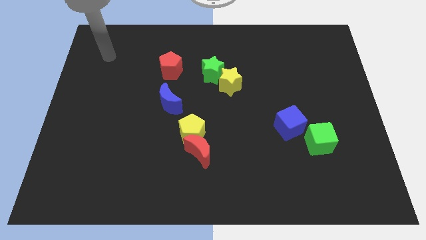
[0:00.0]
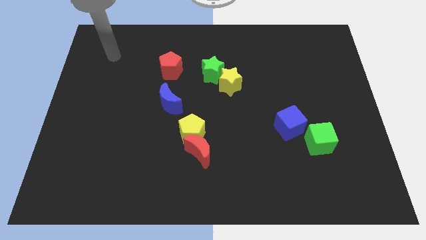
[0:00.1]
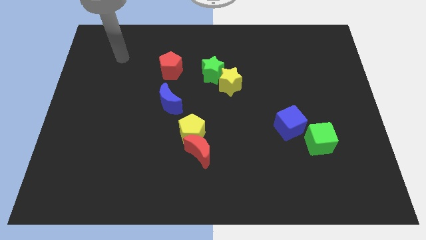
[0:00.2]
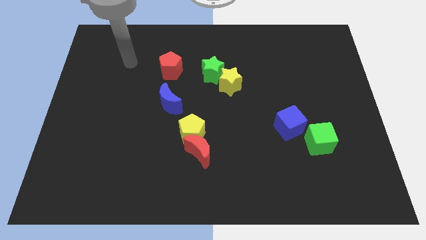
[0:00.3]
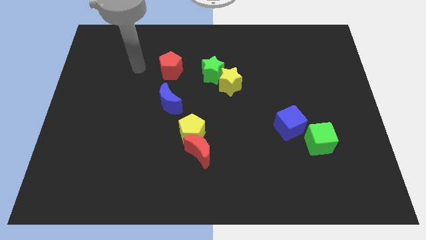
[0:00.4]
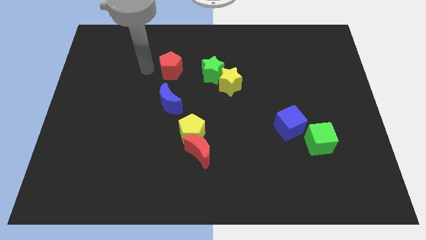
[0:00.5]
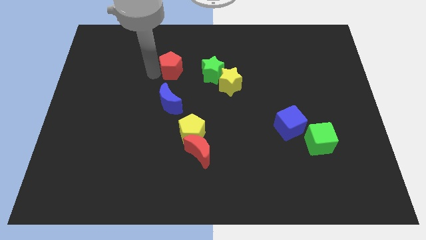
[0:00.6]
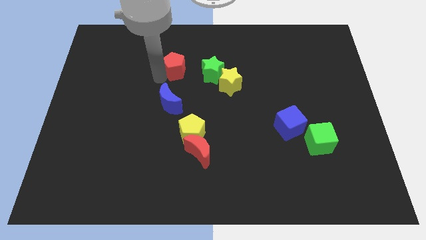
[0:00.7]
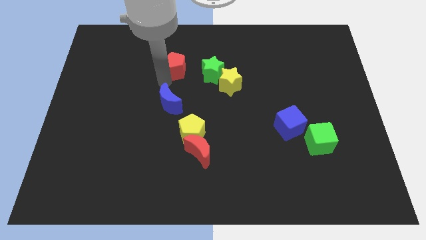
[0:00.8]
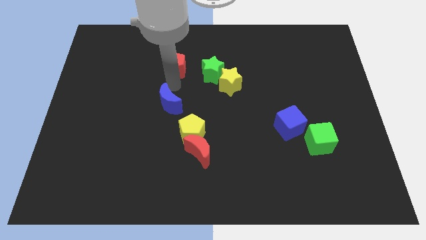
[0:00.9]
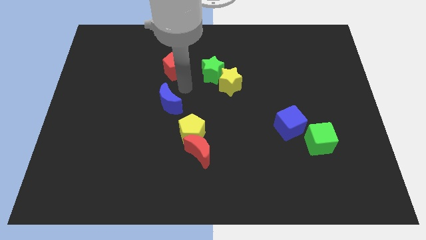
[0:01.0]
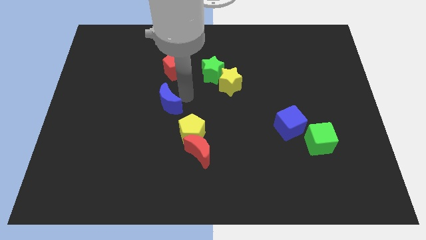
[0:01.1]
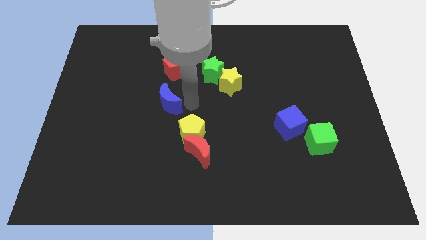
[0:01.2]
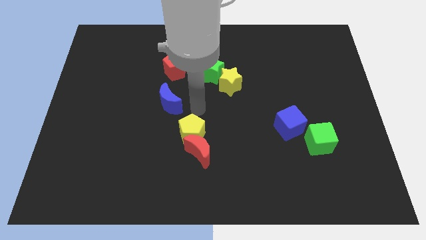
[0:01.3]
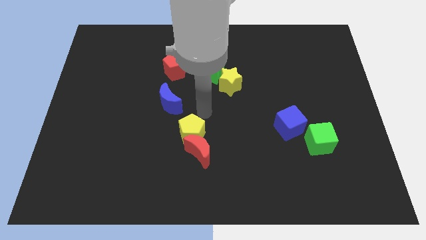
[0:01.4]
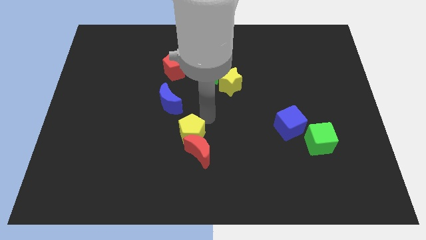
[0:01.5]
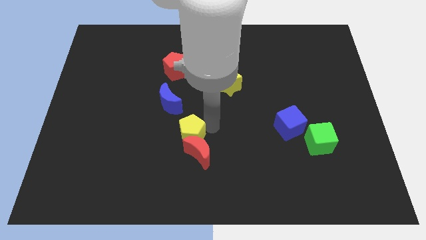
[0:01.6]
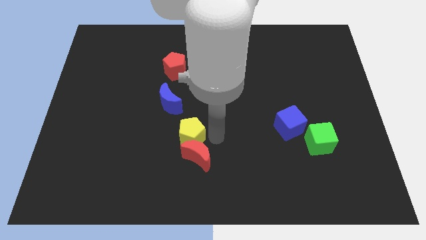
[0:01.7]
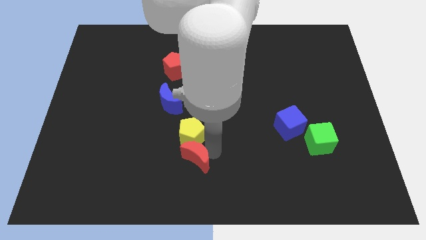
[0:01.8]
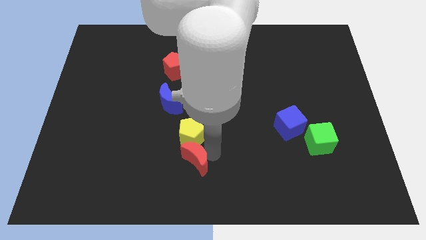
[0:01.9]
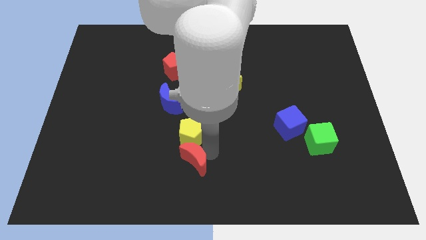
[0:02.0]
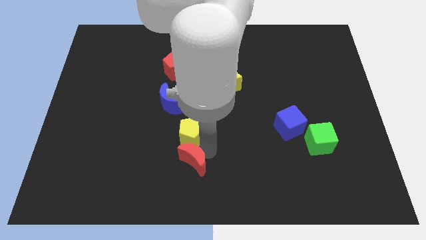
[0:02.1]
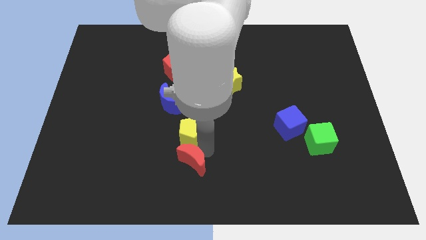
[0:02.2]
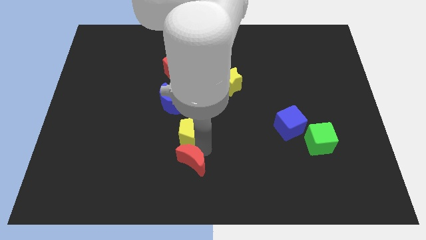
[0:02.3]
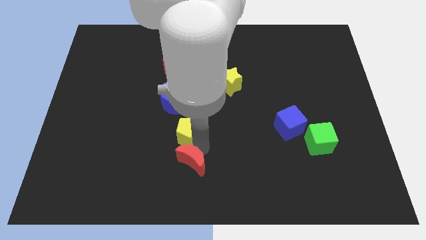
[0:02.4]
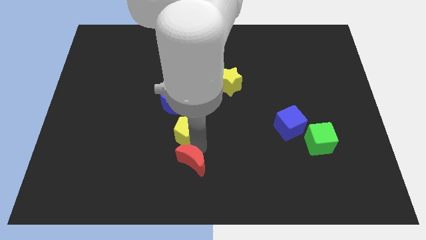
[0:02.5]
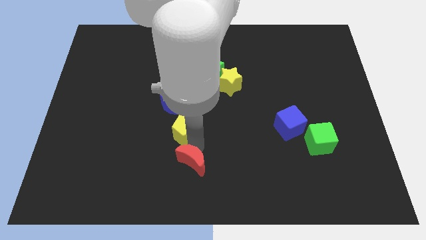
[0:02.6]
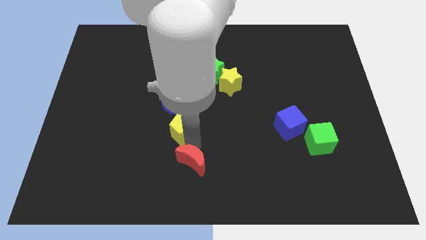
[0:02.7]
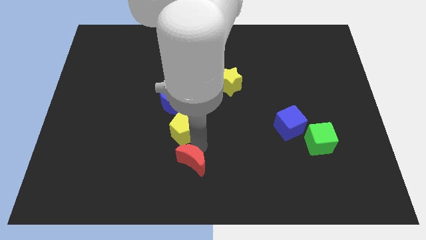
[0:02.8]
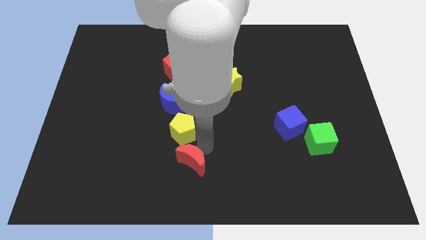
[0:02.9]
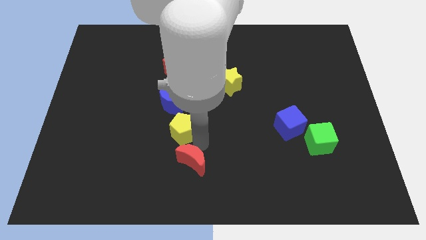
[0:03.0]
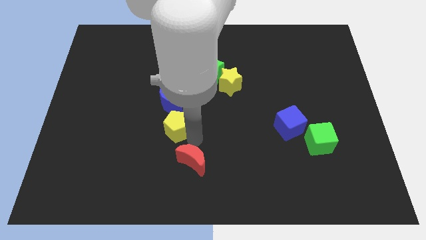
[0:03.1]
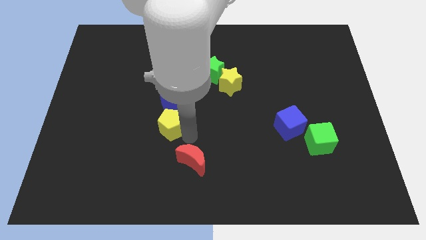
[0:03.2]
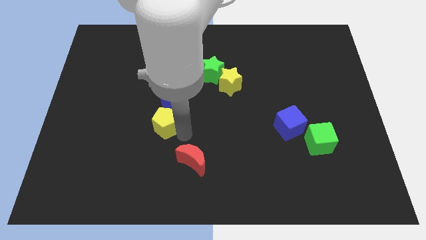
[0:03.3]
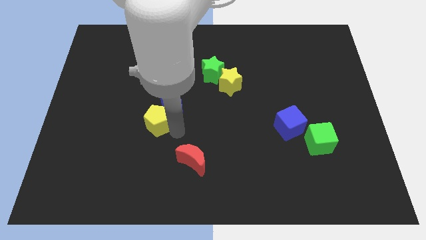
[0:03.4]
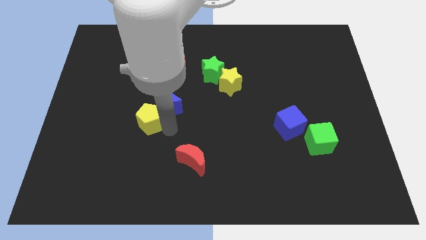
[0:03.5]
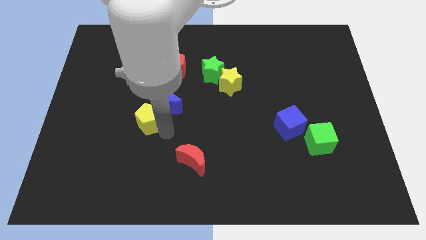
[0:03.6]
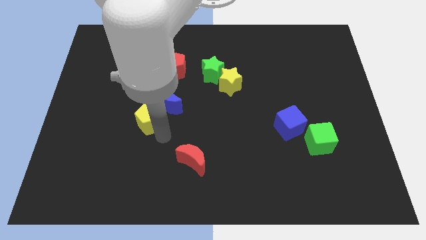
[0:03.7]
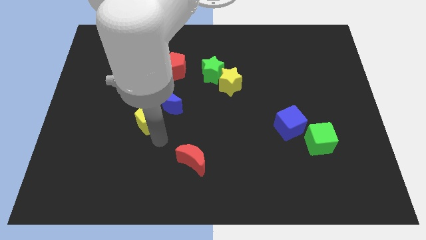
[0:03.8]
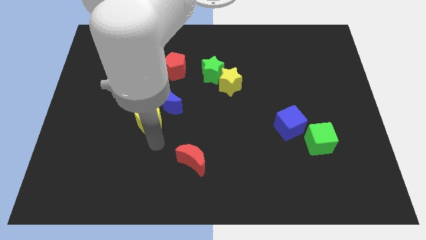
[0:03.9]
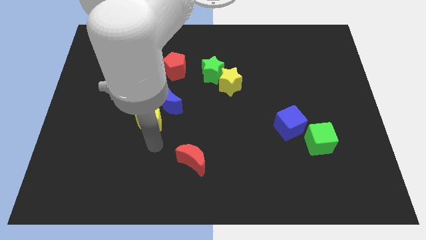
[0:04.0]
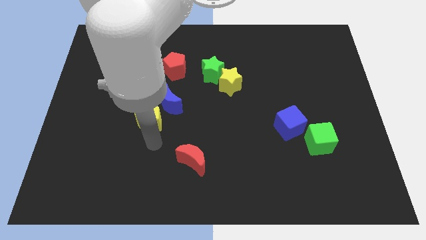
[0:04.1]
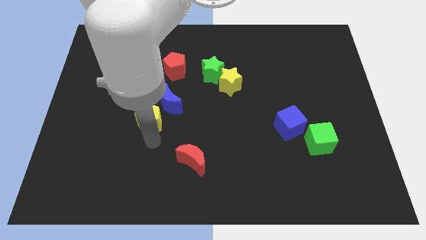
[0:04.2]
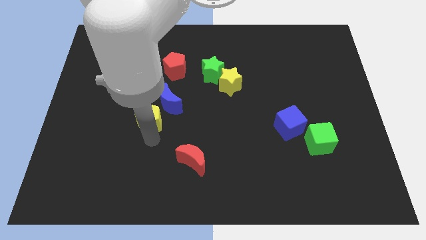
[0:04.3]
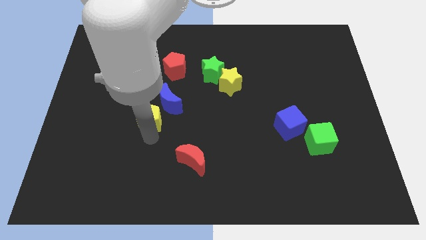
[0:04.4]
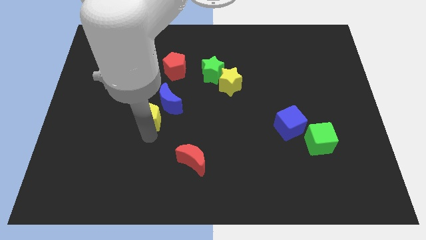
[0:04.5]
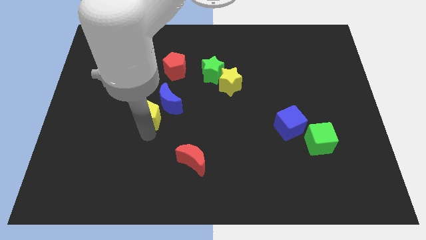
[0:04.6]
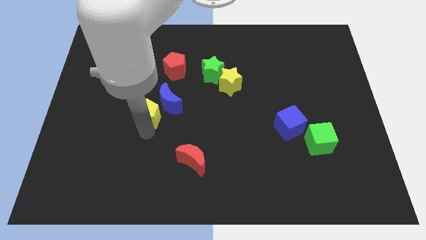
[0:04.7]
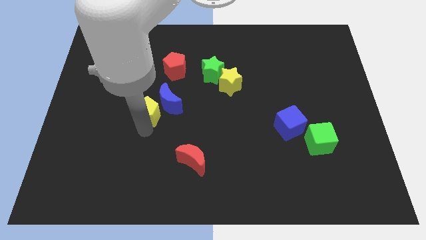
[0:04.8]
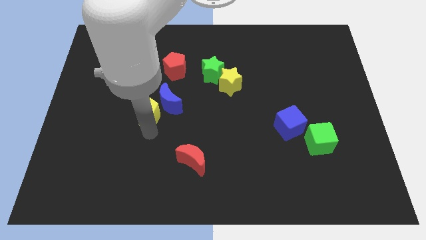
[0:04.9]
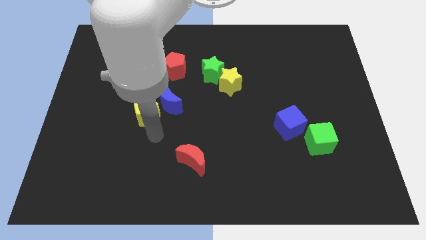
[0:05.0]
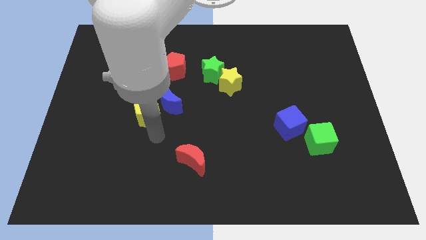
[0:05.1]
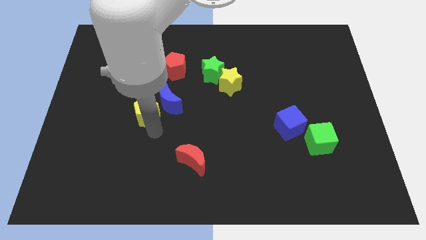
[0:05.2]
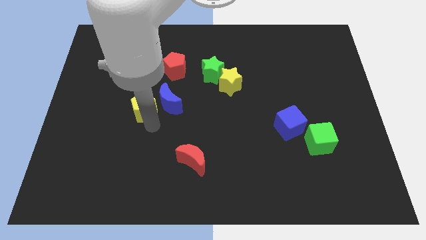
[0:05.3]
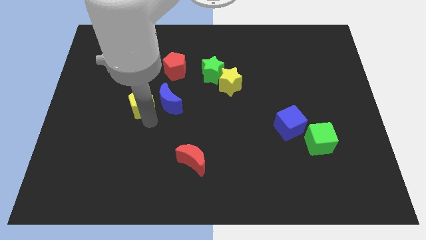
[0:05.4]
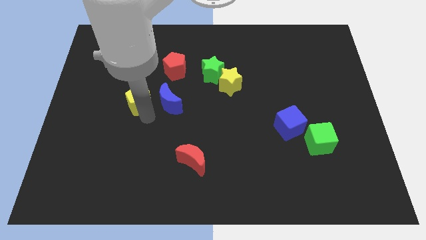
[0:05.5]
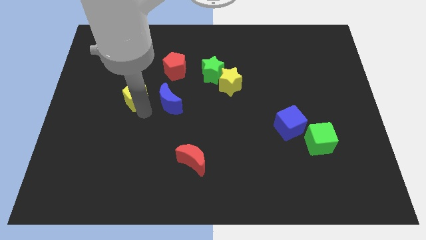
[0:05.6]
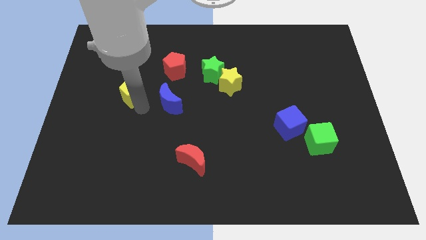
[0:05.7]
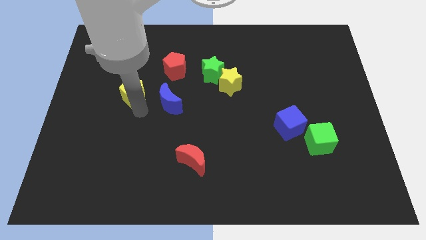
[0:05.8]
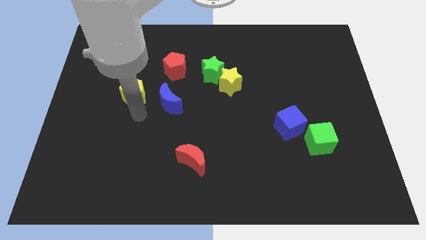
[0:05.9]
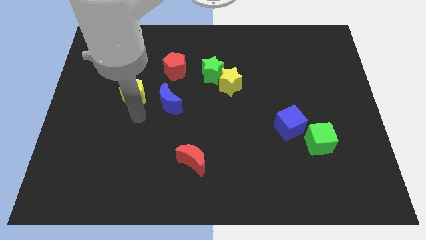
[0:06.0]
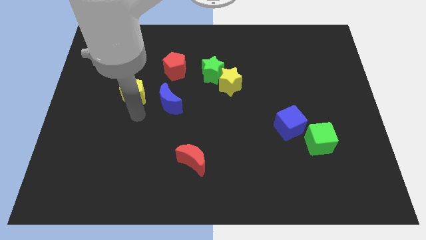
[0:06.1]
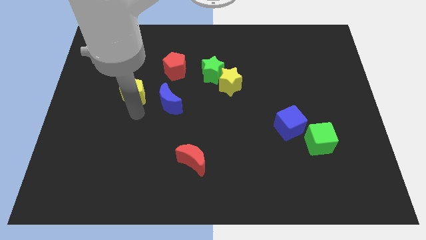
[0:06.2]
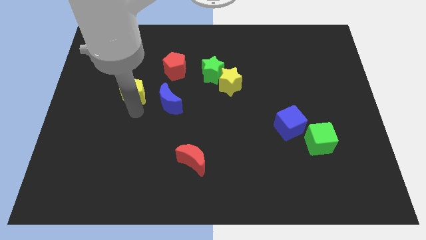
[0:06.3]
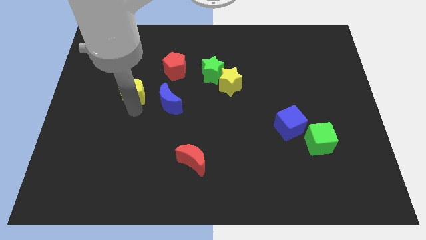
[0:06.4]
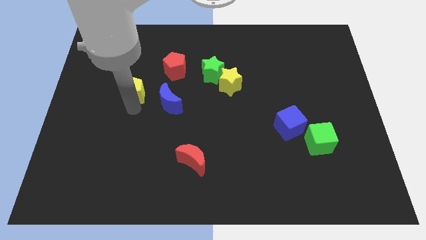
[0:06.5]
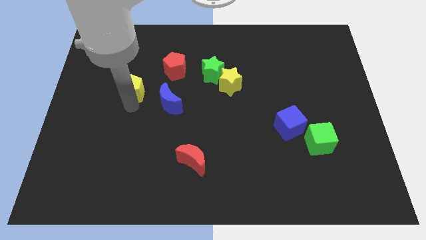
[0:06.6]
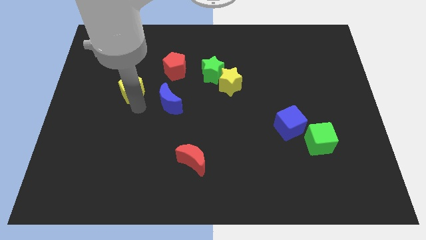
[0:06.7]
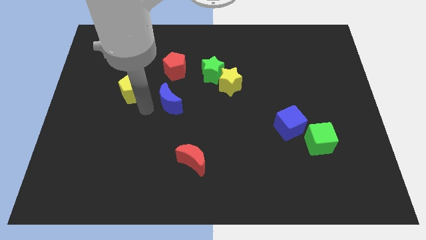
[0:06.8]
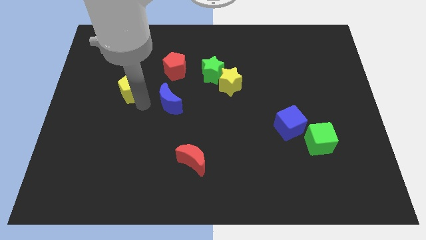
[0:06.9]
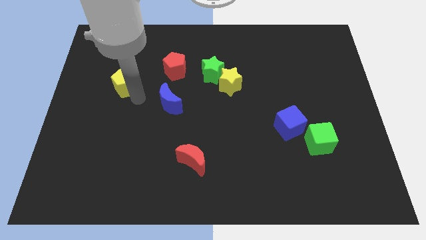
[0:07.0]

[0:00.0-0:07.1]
move the yellow pentagon upwards and to the left diagonally

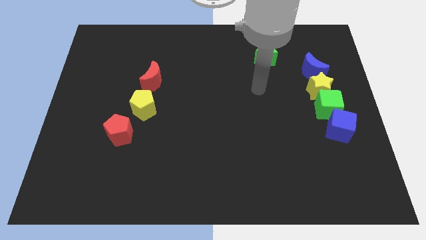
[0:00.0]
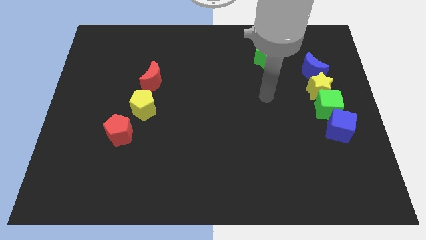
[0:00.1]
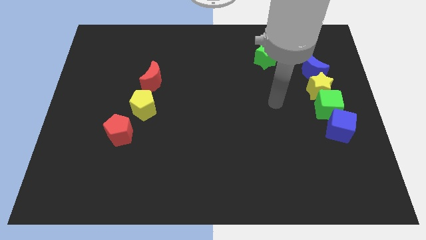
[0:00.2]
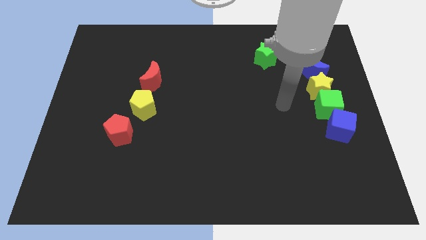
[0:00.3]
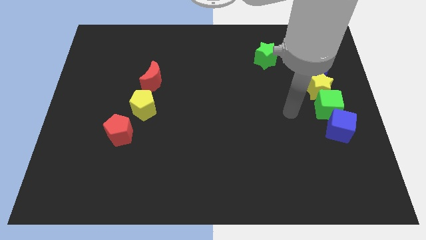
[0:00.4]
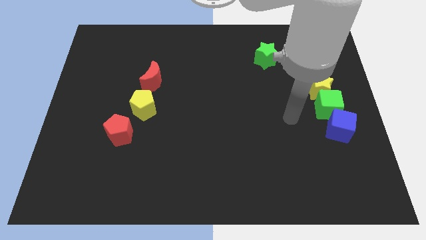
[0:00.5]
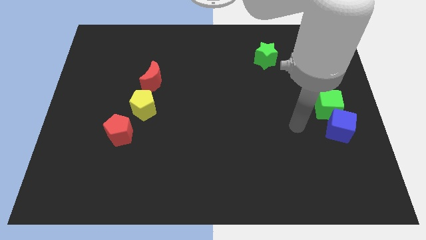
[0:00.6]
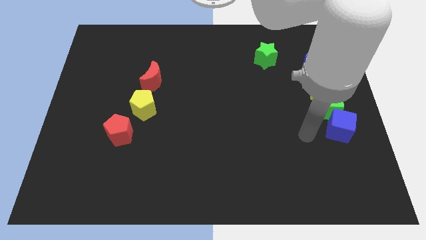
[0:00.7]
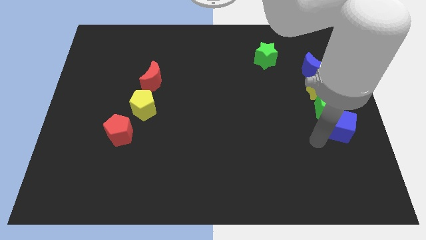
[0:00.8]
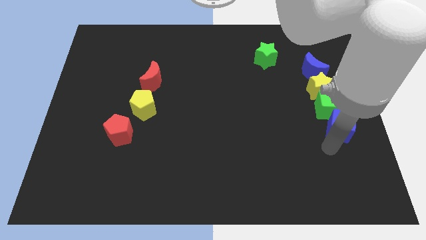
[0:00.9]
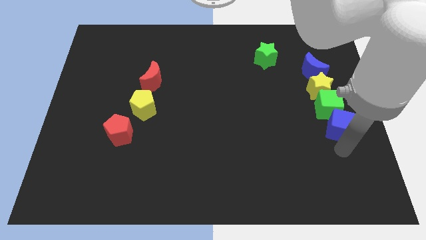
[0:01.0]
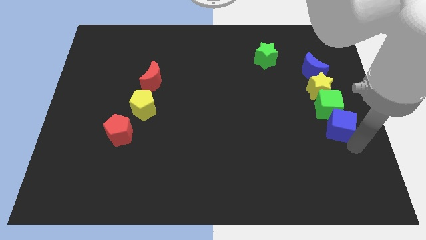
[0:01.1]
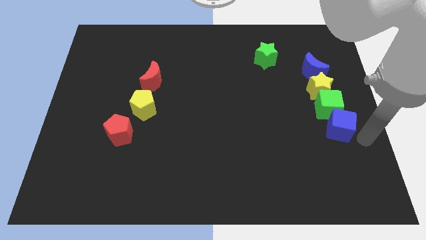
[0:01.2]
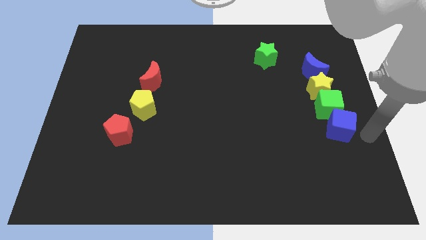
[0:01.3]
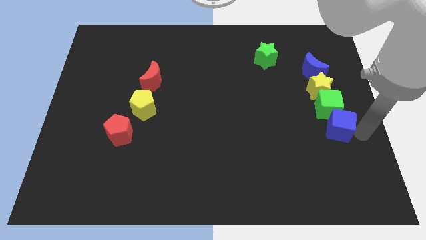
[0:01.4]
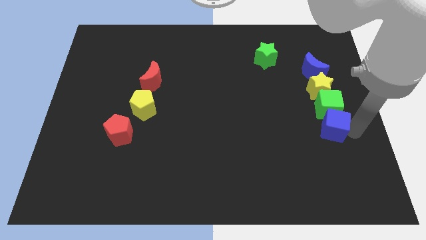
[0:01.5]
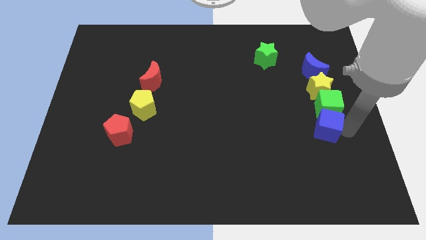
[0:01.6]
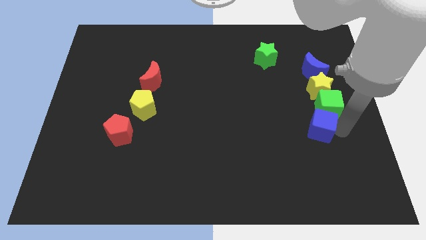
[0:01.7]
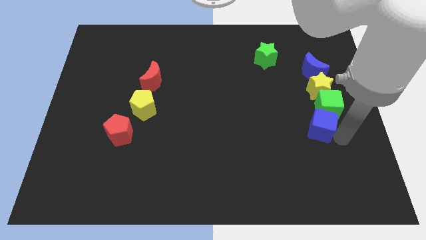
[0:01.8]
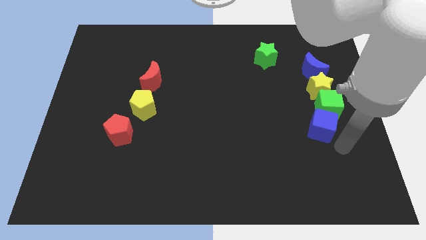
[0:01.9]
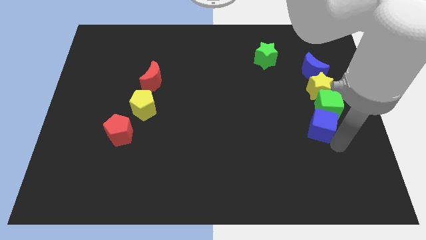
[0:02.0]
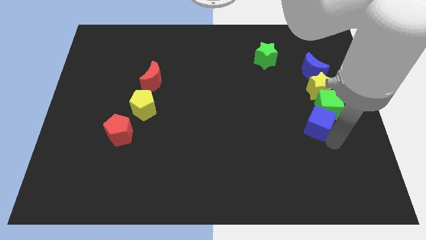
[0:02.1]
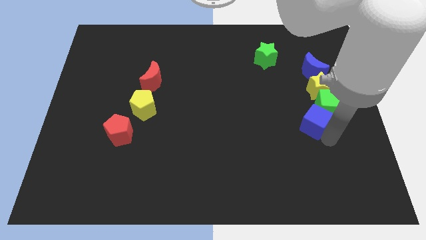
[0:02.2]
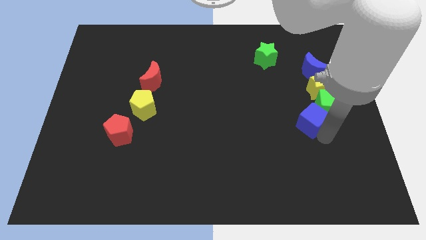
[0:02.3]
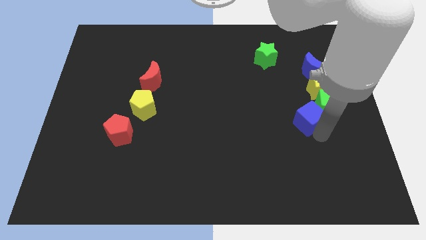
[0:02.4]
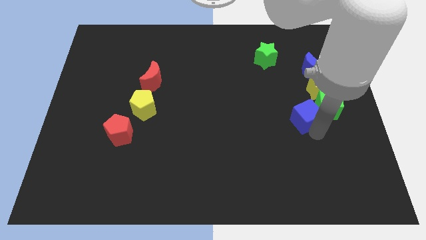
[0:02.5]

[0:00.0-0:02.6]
slightly slide the blue cube upwards and to the left
